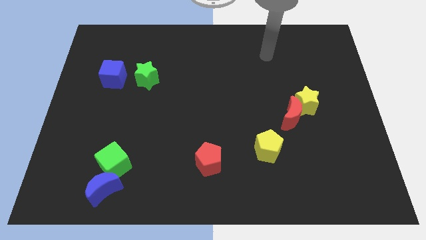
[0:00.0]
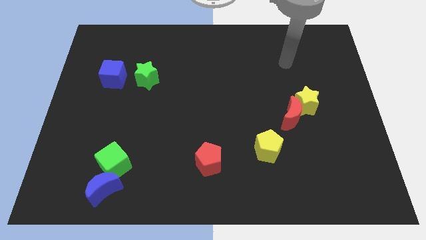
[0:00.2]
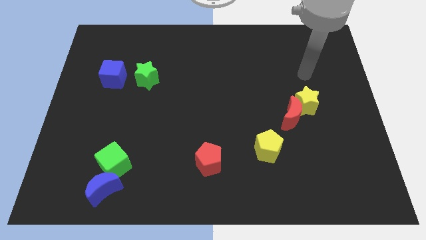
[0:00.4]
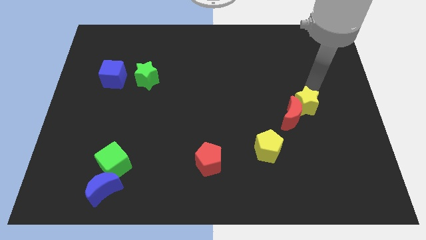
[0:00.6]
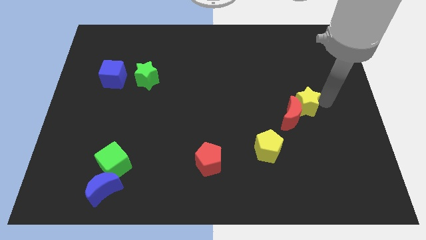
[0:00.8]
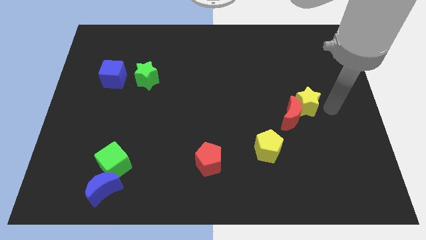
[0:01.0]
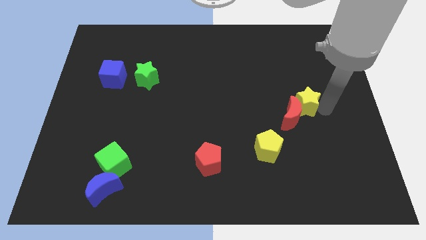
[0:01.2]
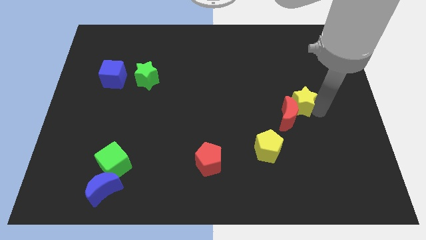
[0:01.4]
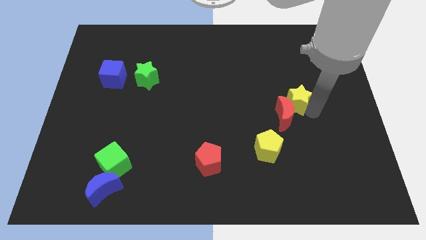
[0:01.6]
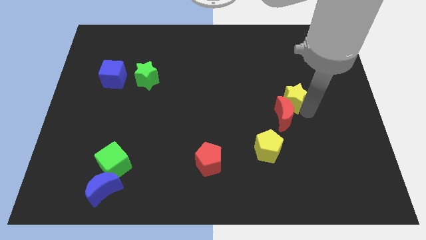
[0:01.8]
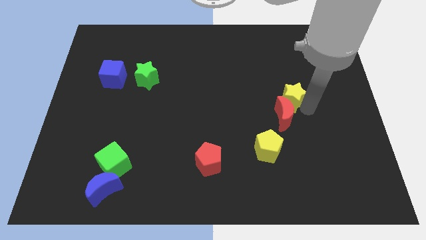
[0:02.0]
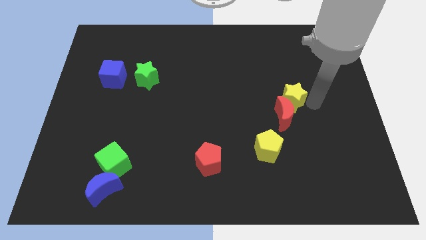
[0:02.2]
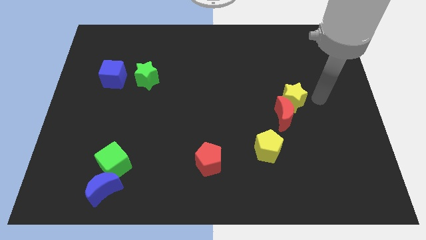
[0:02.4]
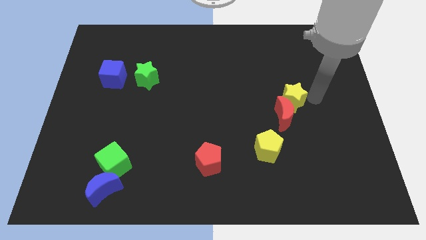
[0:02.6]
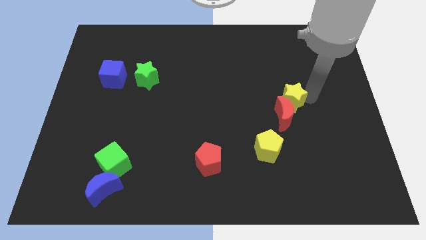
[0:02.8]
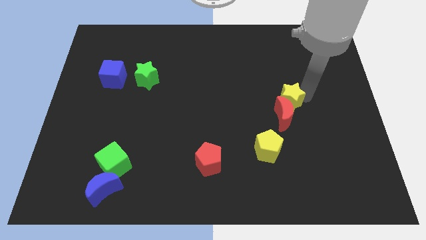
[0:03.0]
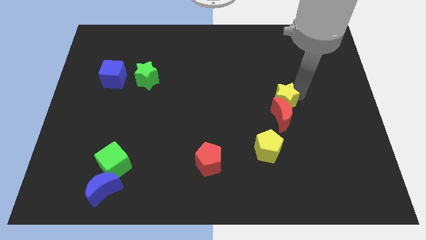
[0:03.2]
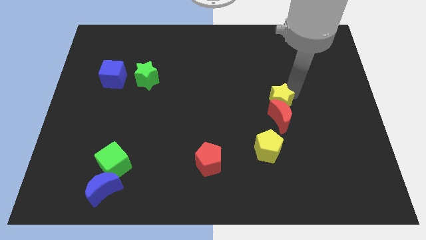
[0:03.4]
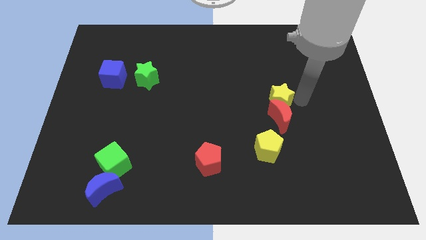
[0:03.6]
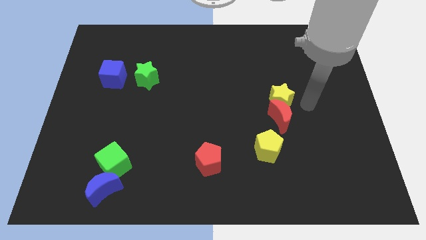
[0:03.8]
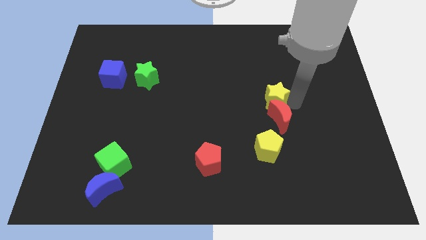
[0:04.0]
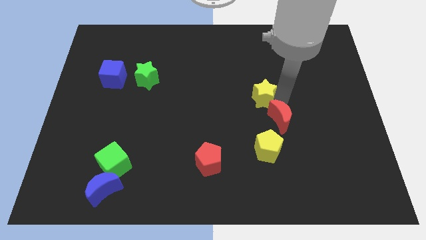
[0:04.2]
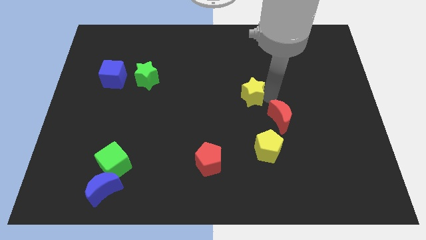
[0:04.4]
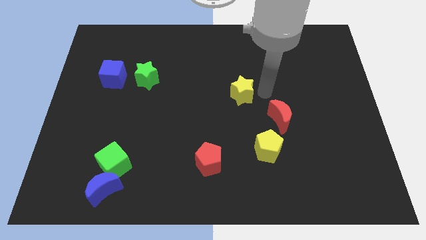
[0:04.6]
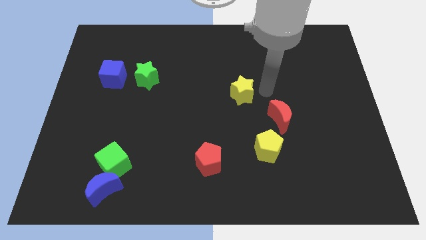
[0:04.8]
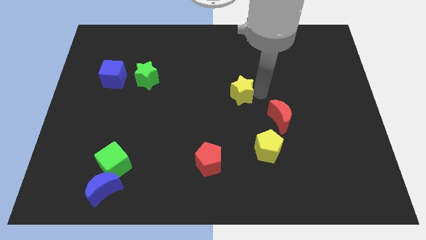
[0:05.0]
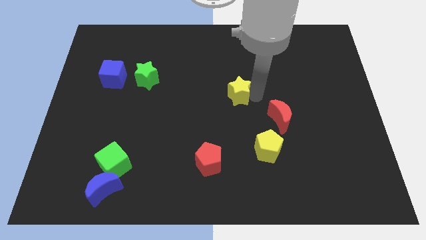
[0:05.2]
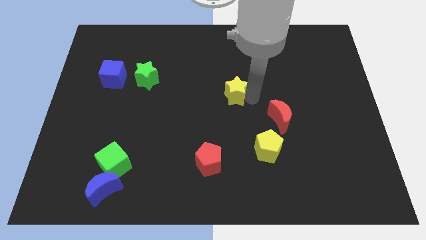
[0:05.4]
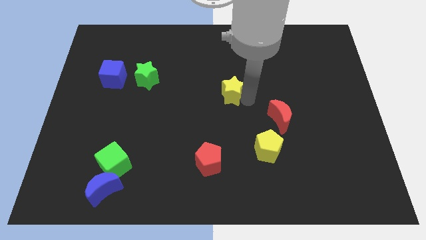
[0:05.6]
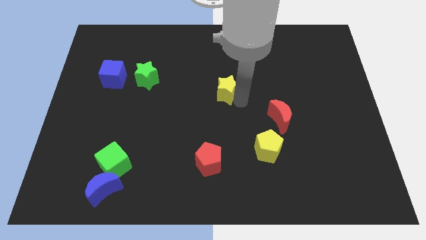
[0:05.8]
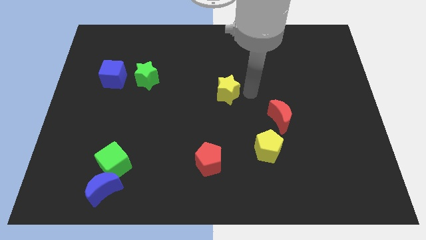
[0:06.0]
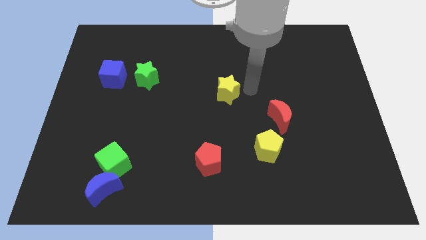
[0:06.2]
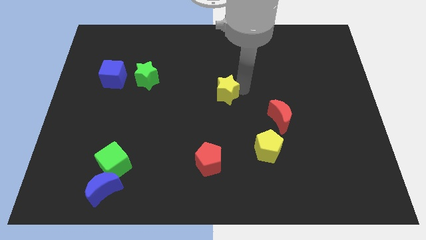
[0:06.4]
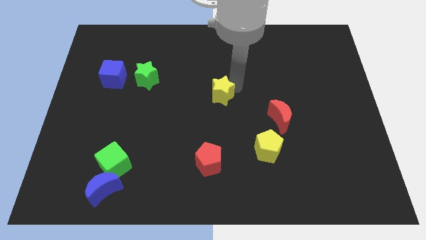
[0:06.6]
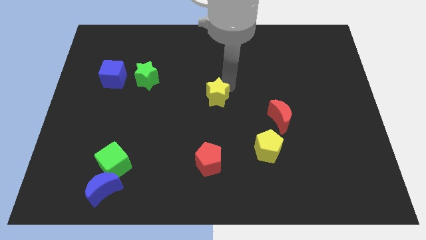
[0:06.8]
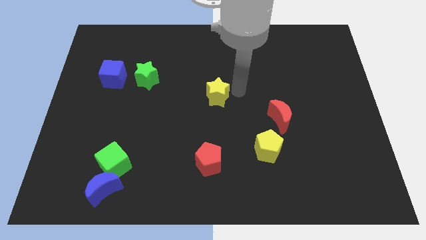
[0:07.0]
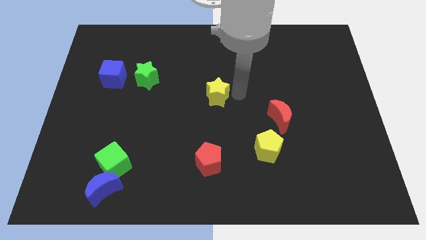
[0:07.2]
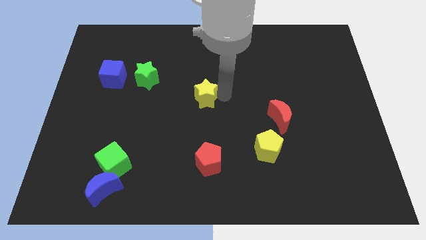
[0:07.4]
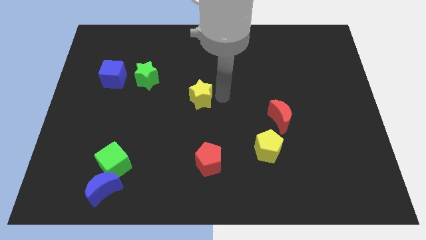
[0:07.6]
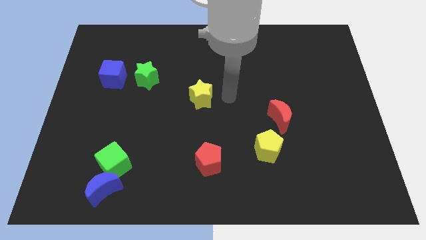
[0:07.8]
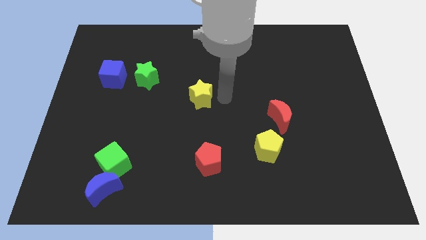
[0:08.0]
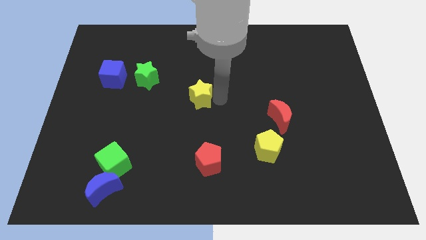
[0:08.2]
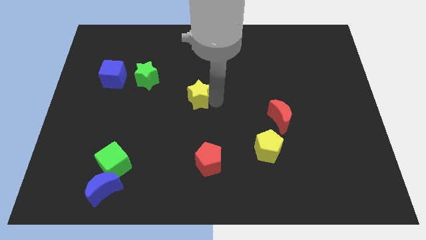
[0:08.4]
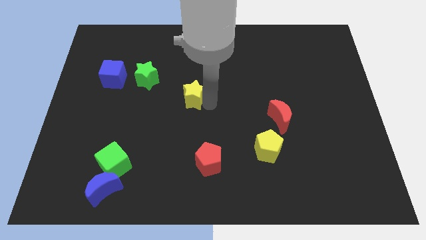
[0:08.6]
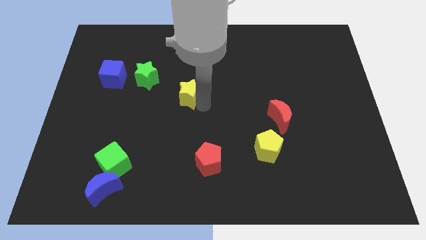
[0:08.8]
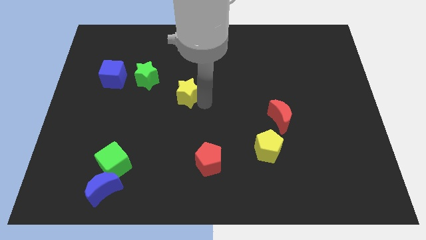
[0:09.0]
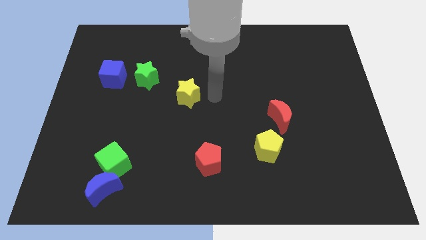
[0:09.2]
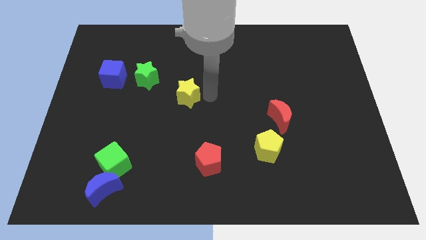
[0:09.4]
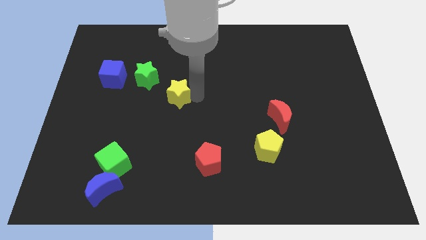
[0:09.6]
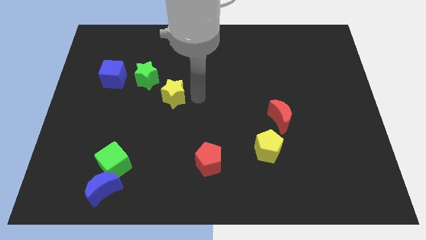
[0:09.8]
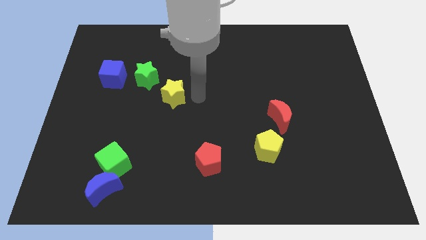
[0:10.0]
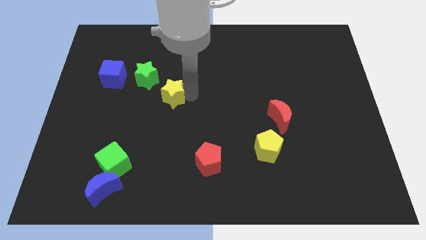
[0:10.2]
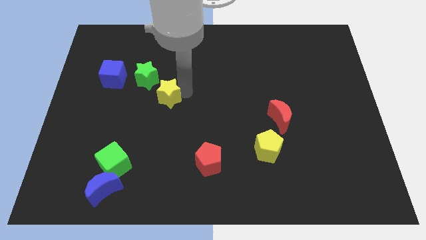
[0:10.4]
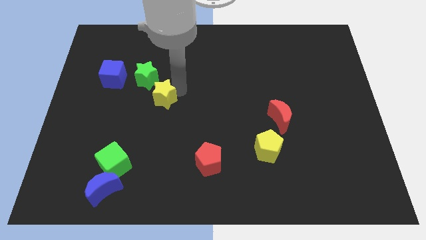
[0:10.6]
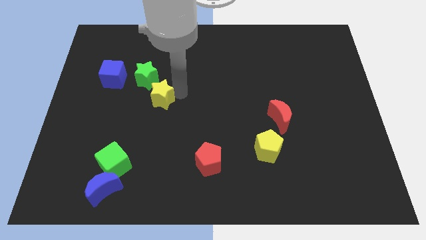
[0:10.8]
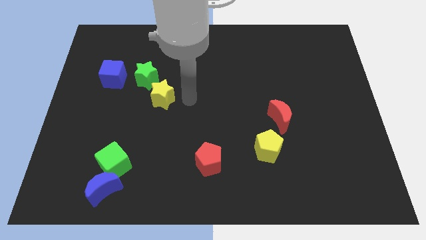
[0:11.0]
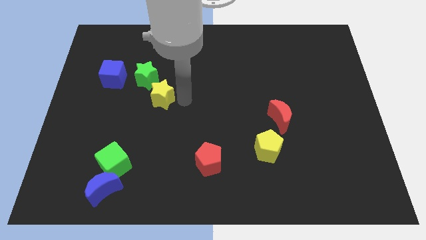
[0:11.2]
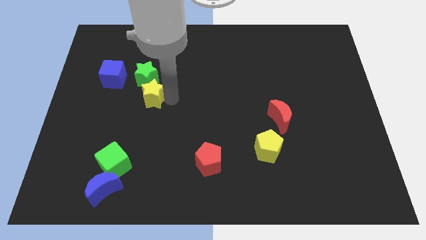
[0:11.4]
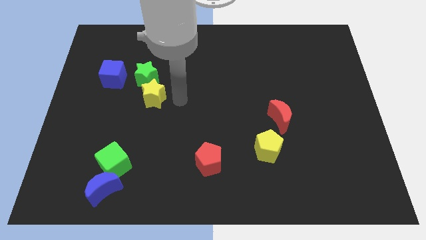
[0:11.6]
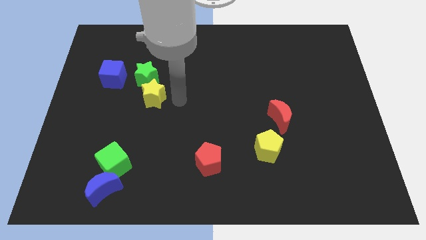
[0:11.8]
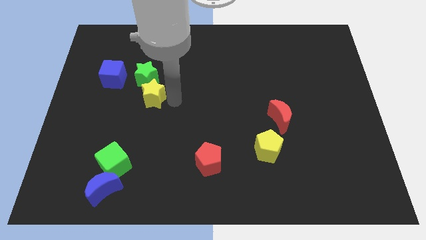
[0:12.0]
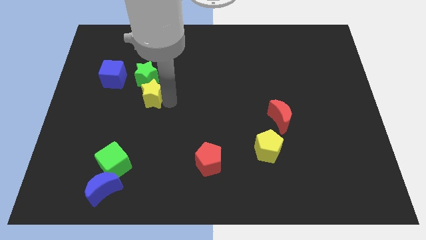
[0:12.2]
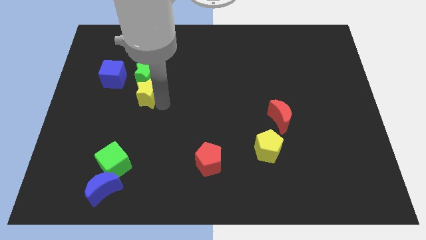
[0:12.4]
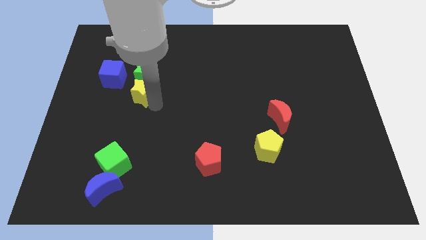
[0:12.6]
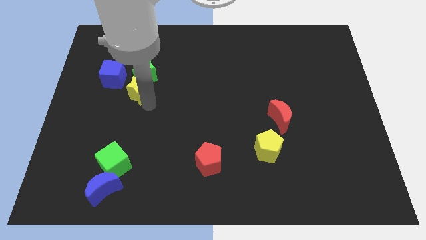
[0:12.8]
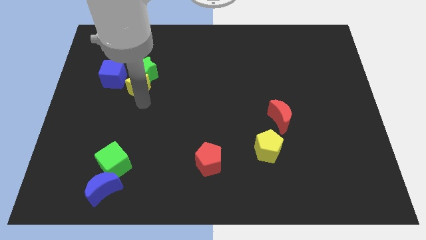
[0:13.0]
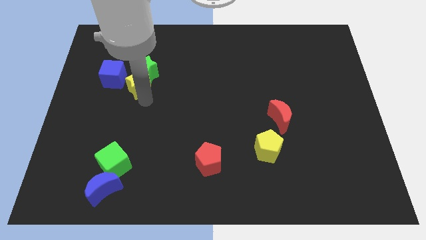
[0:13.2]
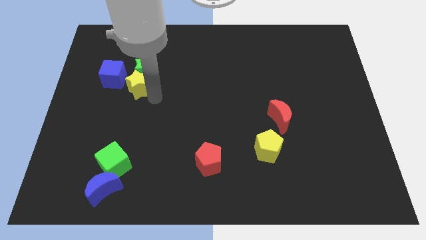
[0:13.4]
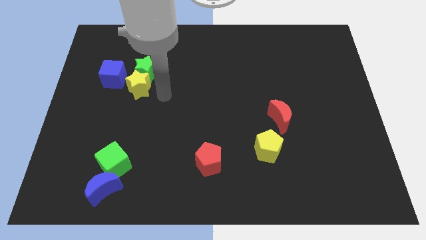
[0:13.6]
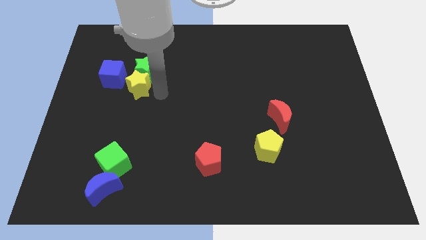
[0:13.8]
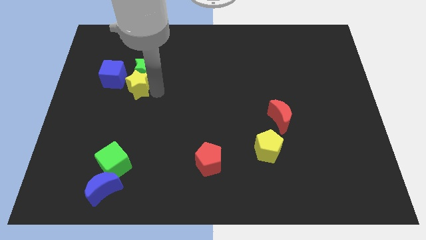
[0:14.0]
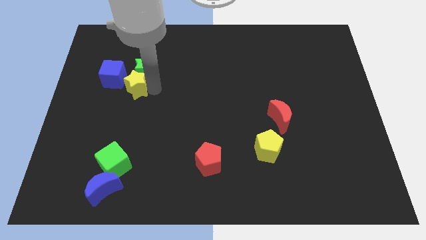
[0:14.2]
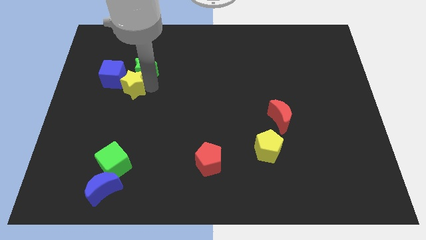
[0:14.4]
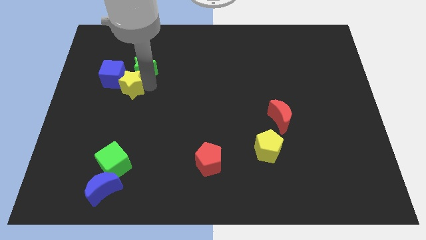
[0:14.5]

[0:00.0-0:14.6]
push the yellow star next to the blue cube
